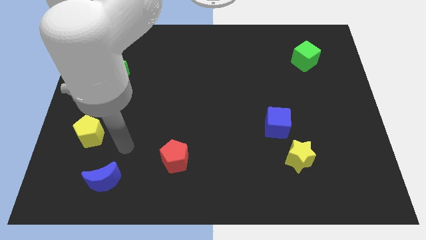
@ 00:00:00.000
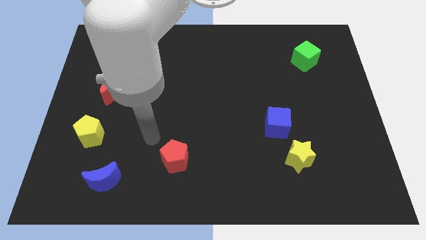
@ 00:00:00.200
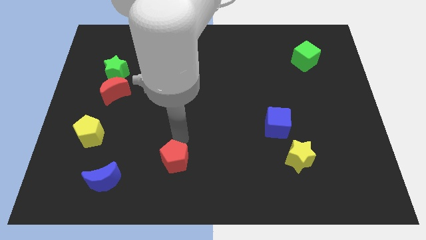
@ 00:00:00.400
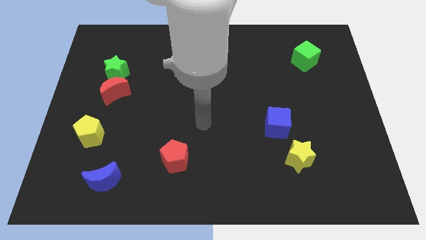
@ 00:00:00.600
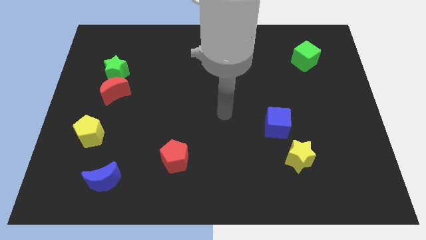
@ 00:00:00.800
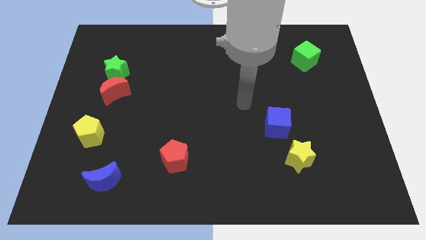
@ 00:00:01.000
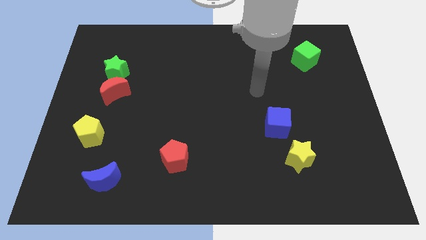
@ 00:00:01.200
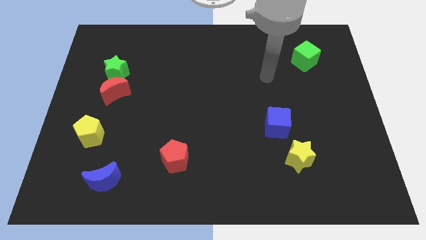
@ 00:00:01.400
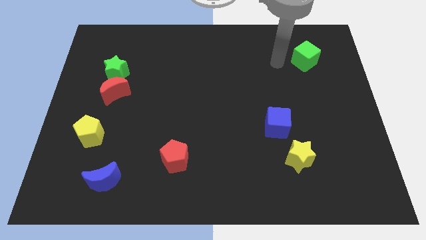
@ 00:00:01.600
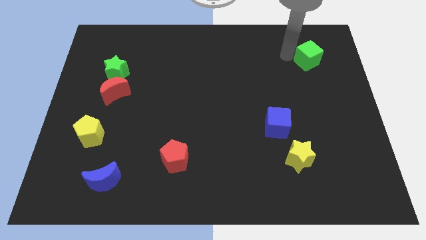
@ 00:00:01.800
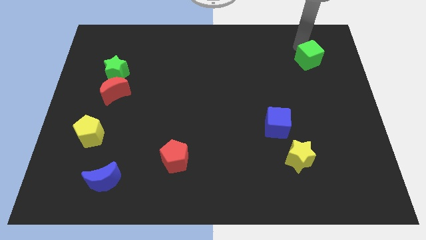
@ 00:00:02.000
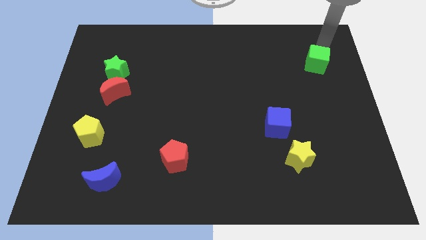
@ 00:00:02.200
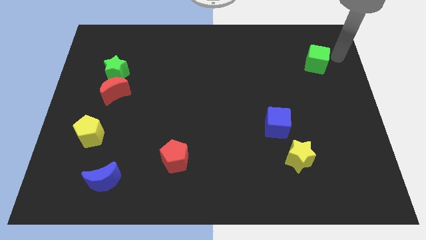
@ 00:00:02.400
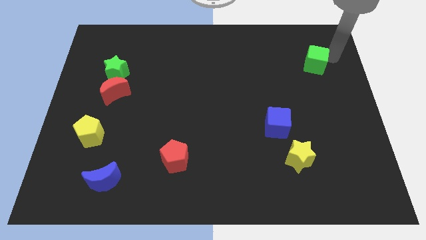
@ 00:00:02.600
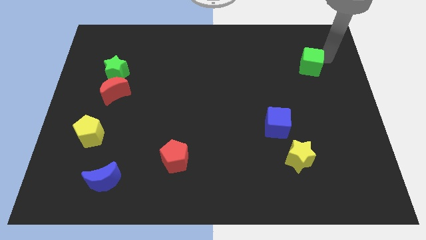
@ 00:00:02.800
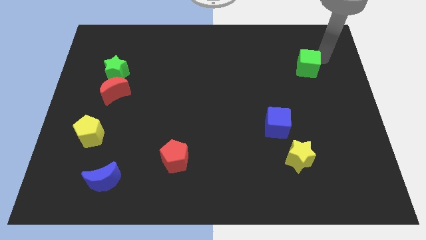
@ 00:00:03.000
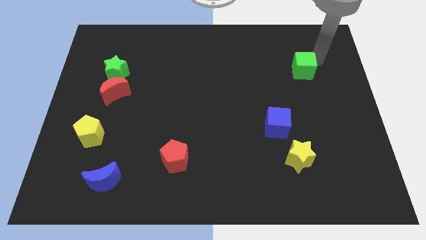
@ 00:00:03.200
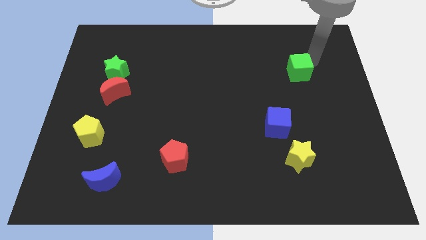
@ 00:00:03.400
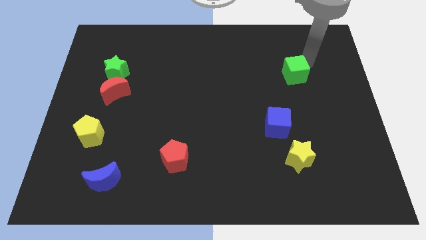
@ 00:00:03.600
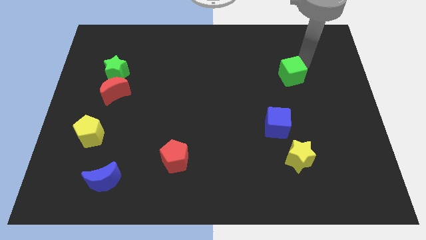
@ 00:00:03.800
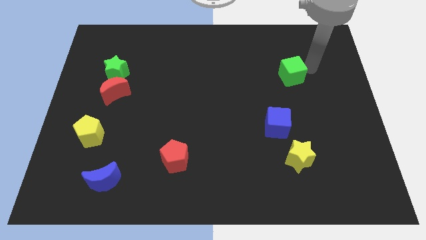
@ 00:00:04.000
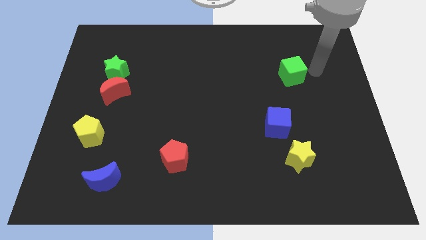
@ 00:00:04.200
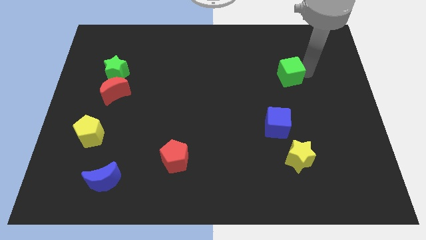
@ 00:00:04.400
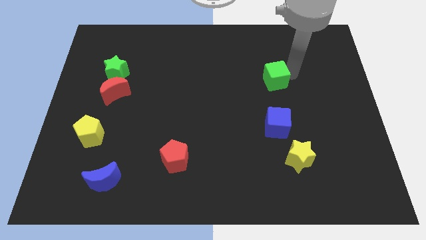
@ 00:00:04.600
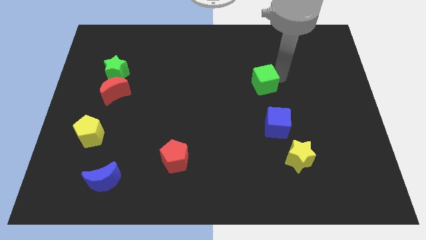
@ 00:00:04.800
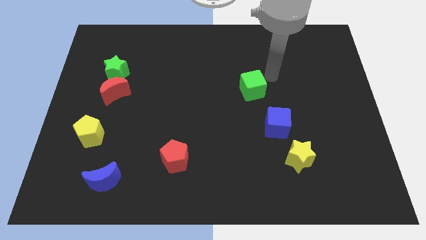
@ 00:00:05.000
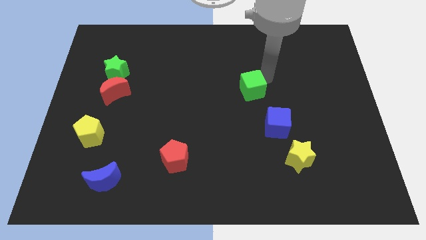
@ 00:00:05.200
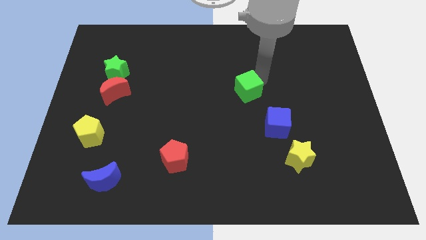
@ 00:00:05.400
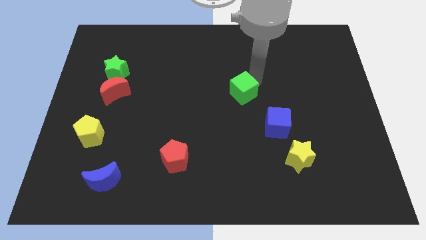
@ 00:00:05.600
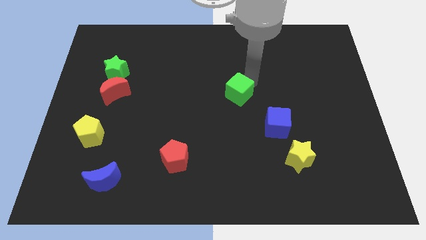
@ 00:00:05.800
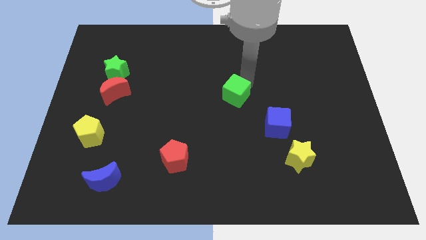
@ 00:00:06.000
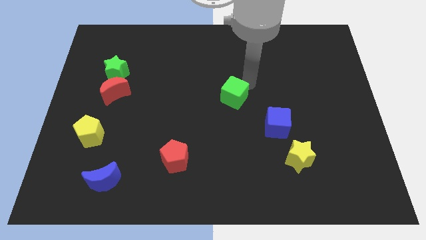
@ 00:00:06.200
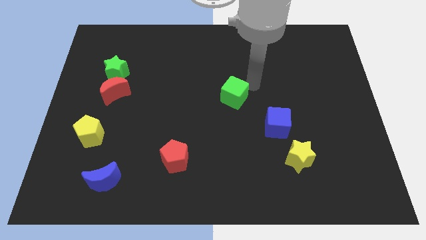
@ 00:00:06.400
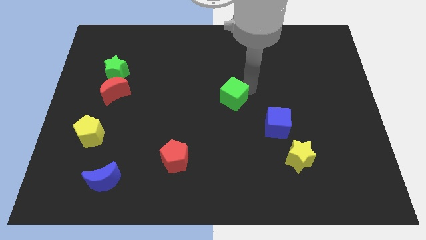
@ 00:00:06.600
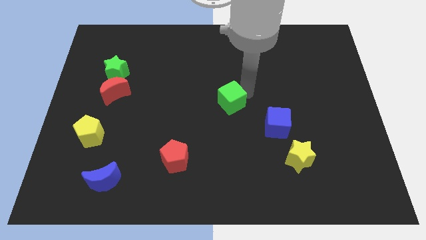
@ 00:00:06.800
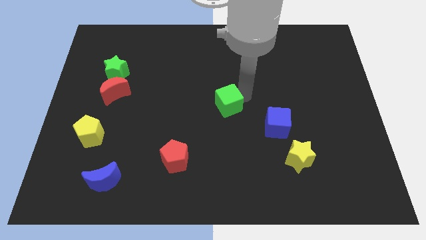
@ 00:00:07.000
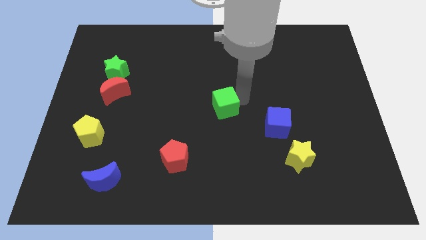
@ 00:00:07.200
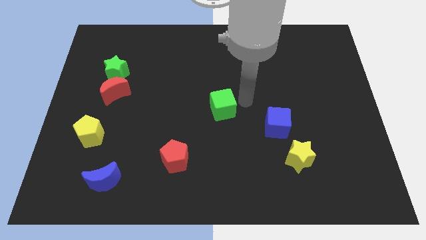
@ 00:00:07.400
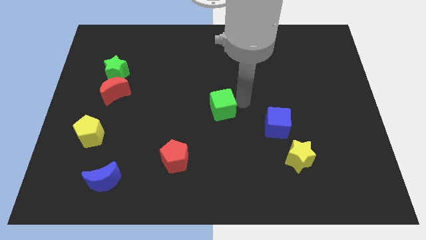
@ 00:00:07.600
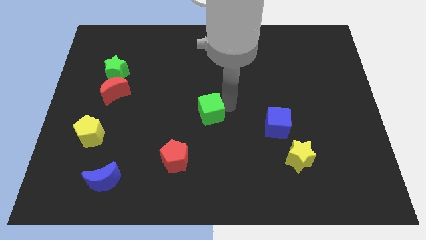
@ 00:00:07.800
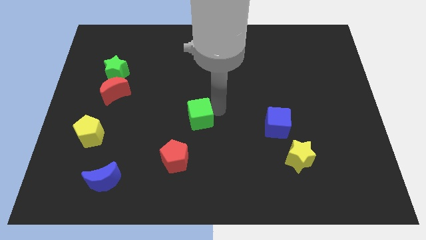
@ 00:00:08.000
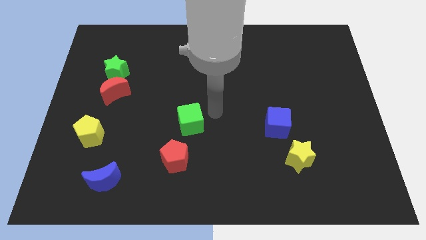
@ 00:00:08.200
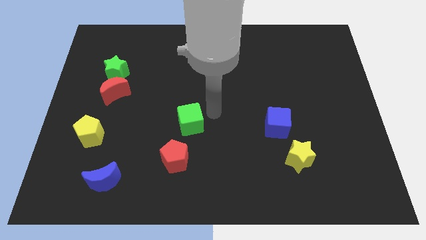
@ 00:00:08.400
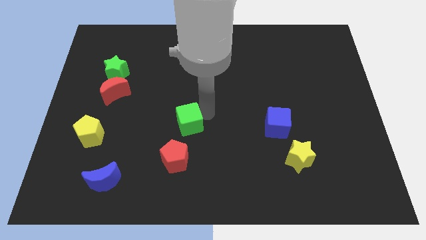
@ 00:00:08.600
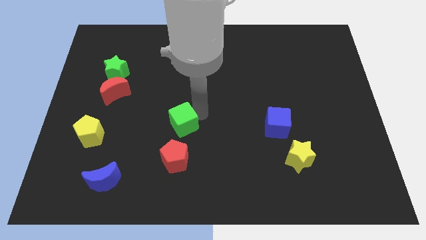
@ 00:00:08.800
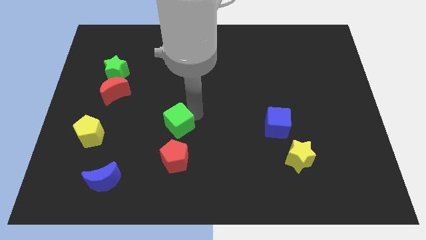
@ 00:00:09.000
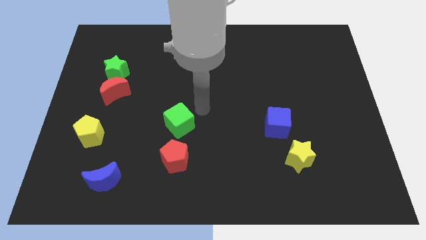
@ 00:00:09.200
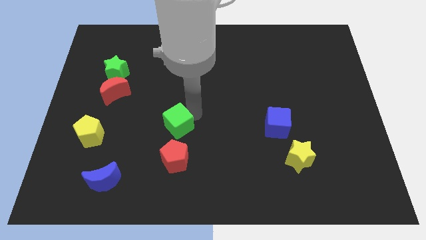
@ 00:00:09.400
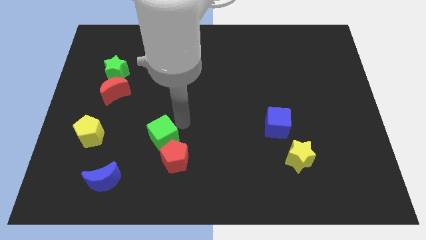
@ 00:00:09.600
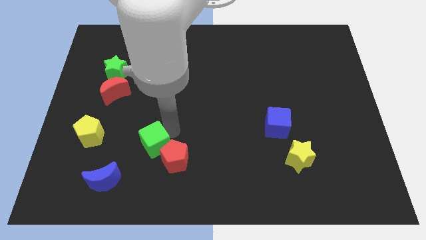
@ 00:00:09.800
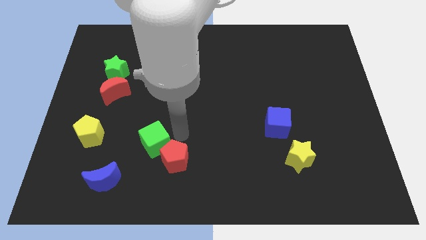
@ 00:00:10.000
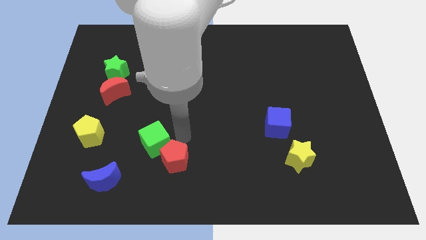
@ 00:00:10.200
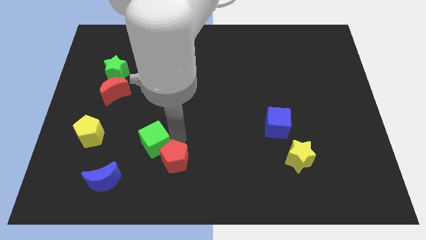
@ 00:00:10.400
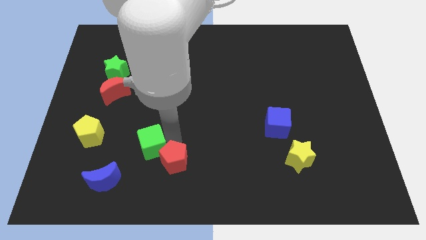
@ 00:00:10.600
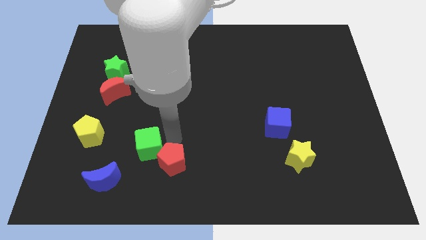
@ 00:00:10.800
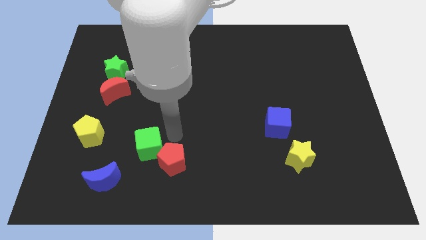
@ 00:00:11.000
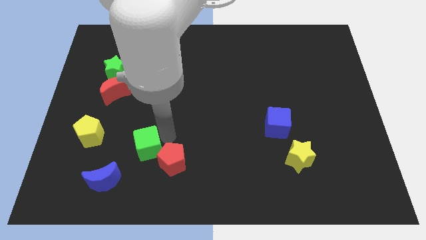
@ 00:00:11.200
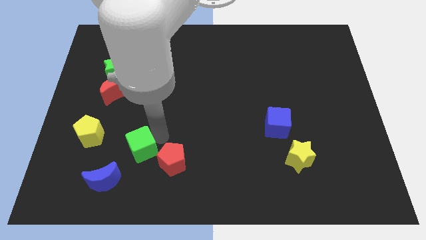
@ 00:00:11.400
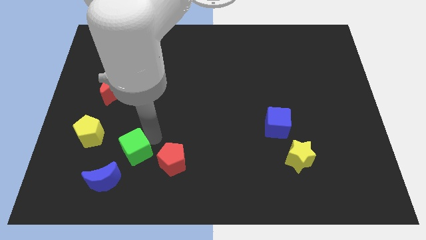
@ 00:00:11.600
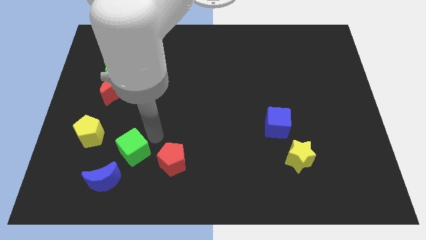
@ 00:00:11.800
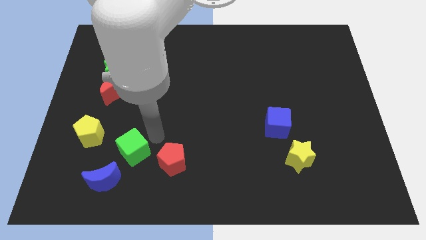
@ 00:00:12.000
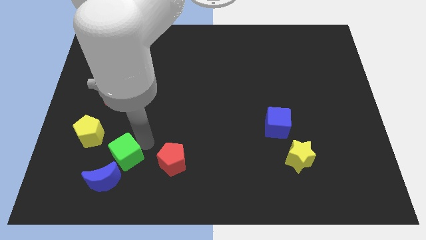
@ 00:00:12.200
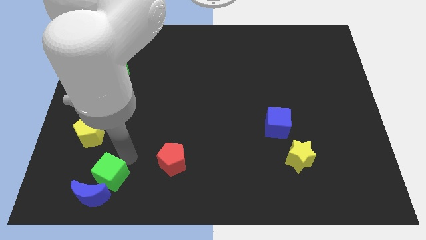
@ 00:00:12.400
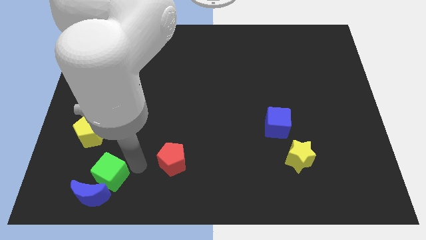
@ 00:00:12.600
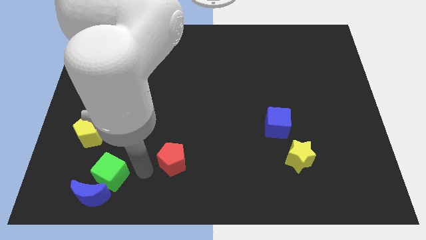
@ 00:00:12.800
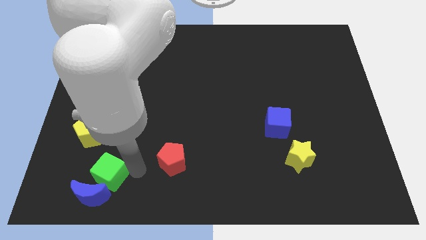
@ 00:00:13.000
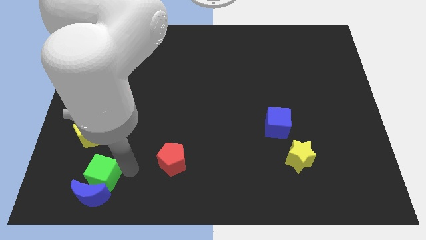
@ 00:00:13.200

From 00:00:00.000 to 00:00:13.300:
move the green cube below the yellow pentagon
